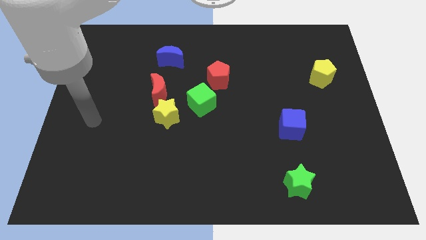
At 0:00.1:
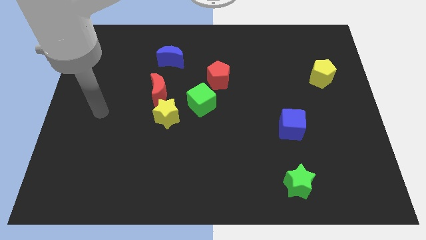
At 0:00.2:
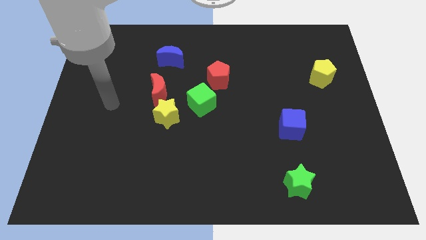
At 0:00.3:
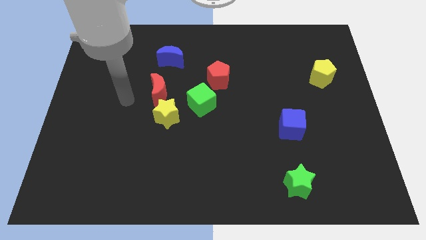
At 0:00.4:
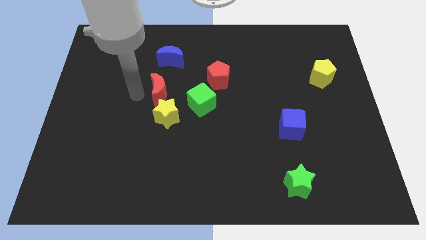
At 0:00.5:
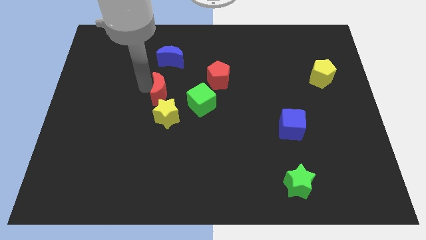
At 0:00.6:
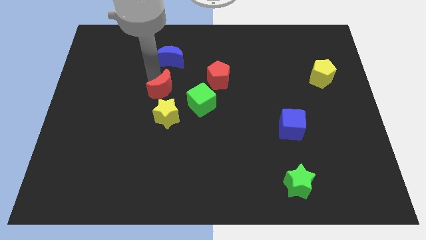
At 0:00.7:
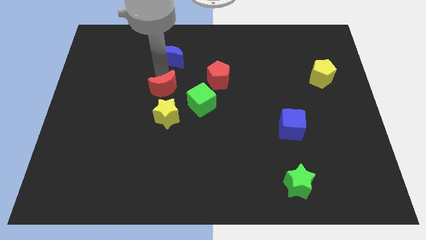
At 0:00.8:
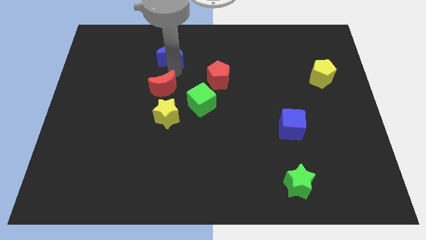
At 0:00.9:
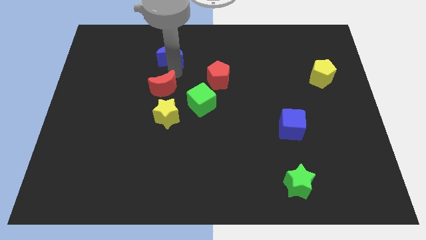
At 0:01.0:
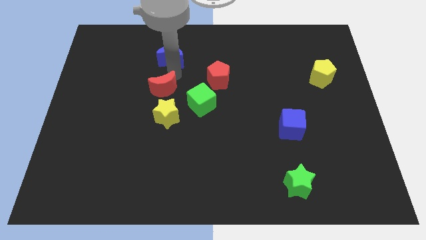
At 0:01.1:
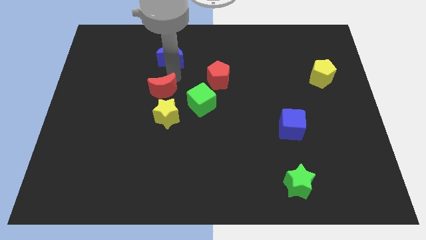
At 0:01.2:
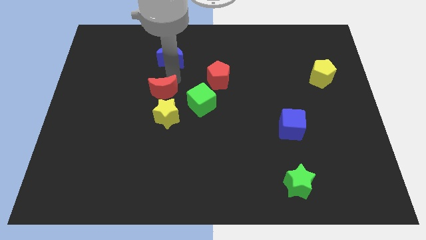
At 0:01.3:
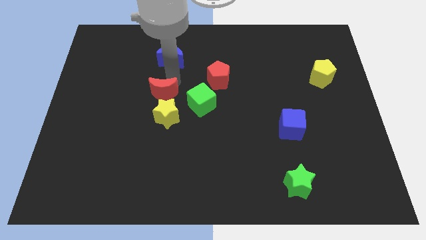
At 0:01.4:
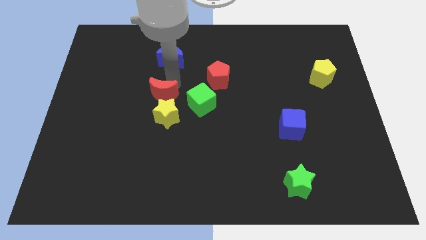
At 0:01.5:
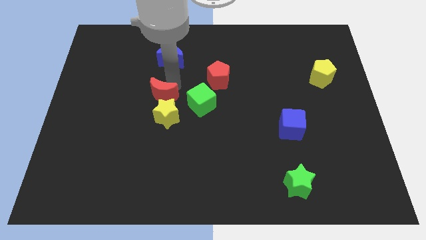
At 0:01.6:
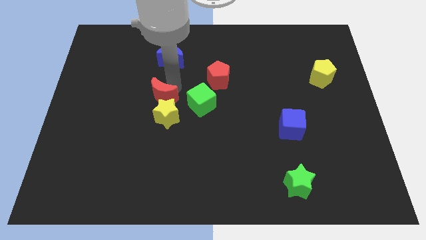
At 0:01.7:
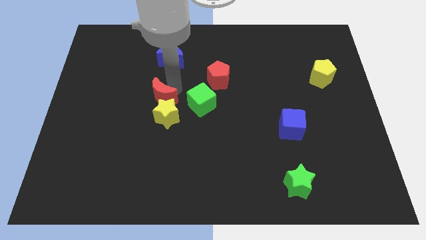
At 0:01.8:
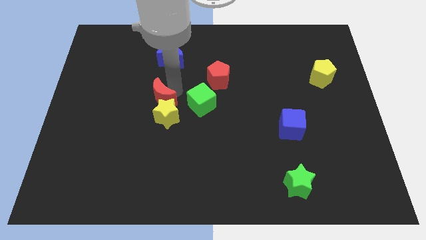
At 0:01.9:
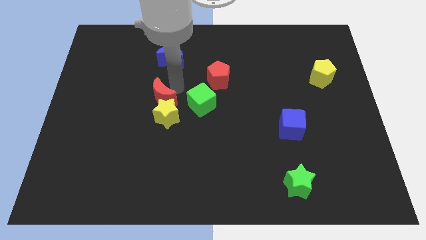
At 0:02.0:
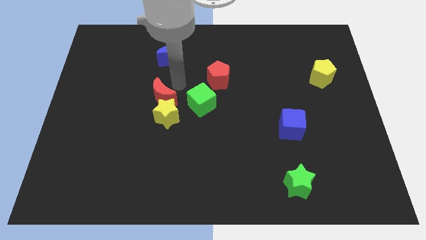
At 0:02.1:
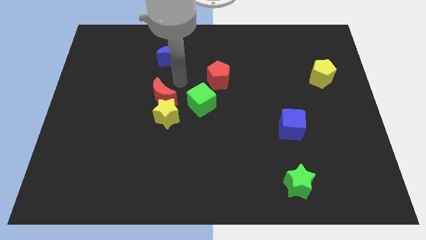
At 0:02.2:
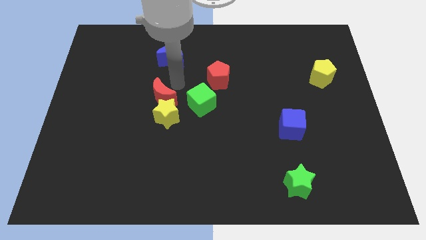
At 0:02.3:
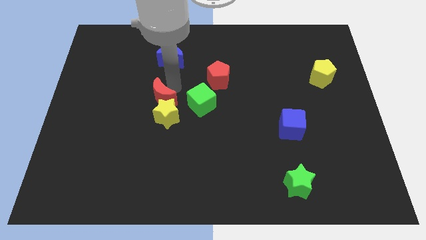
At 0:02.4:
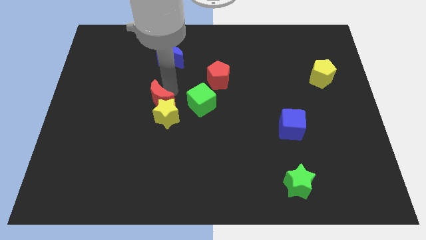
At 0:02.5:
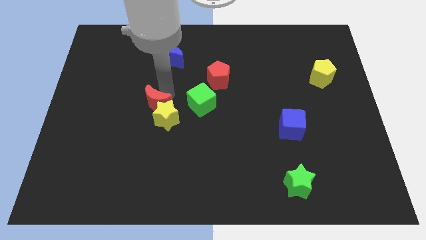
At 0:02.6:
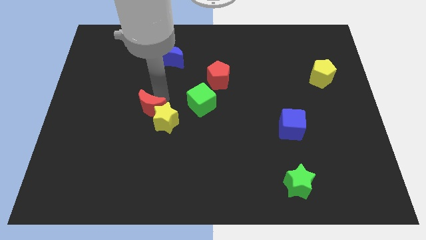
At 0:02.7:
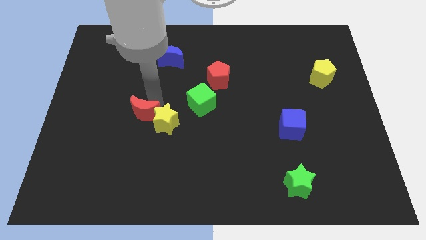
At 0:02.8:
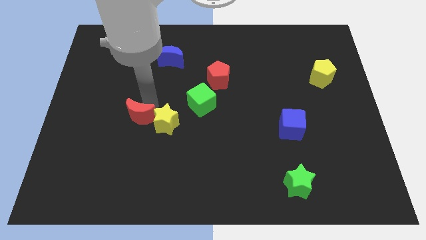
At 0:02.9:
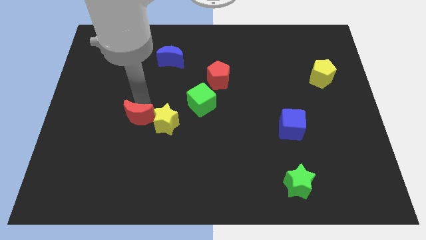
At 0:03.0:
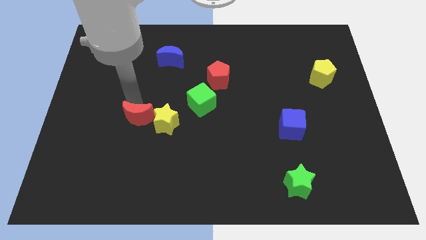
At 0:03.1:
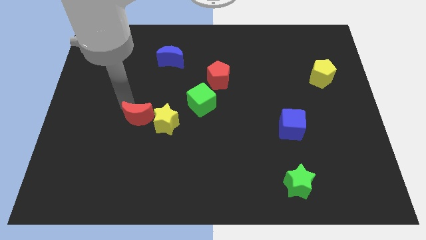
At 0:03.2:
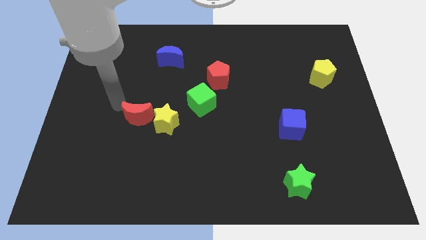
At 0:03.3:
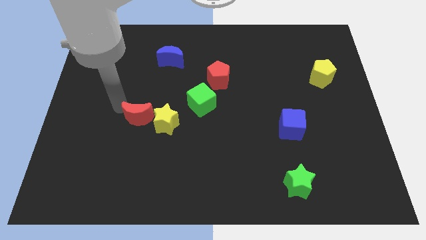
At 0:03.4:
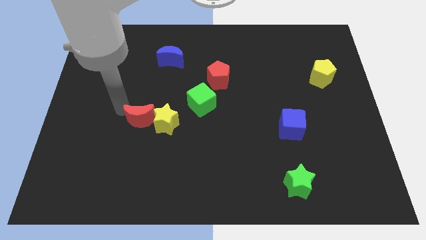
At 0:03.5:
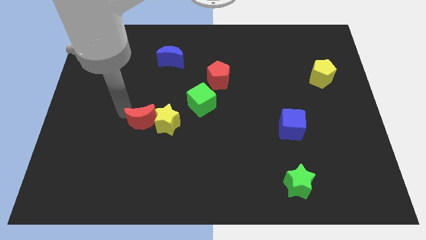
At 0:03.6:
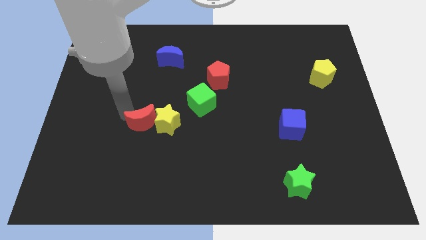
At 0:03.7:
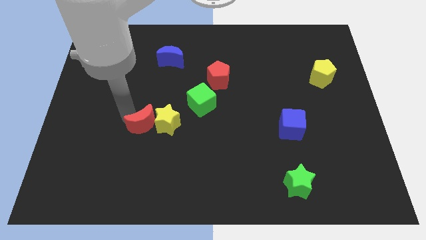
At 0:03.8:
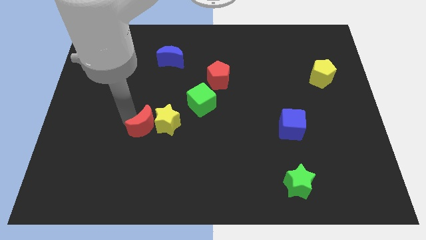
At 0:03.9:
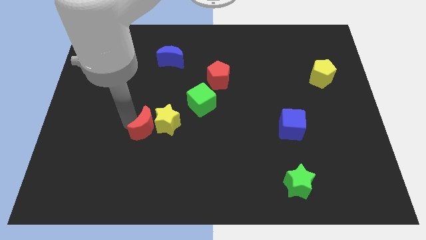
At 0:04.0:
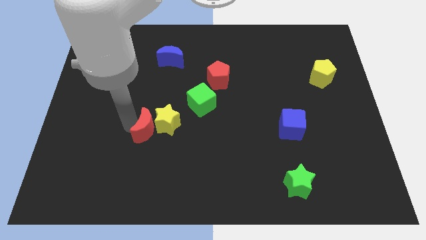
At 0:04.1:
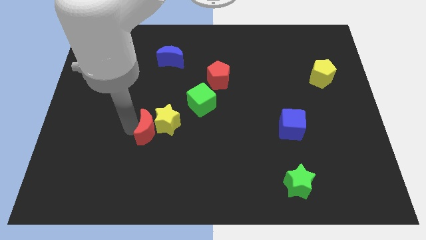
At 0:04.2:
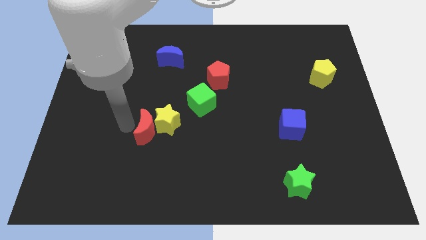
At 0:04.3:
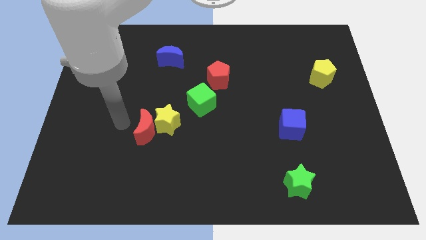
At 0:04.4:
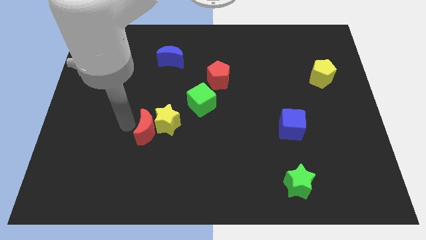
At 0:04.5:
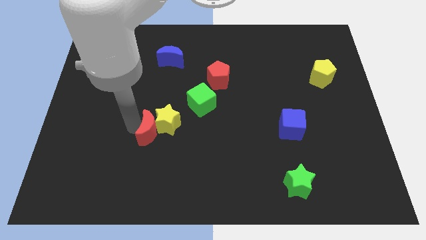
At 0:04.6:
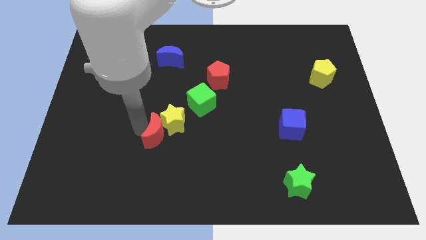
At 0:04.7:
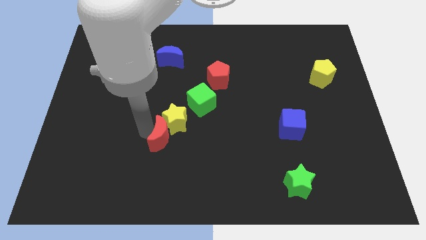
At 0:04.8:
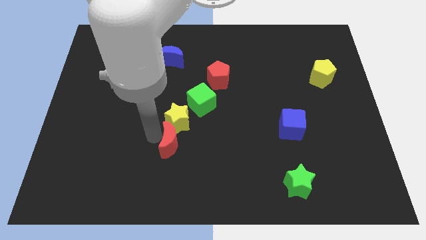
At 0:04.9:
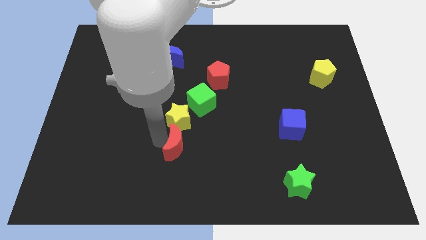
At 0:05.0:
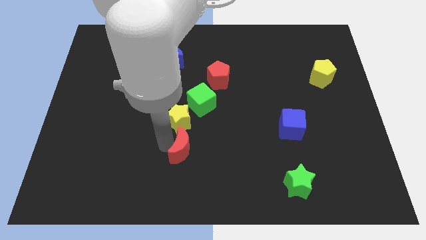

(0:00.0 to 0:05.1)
put the red moon below the green cube
